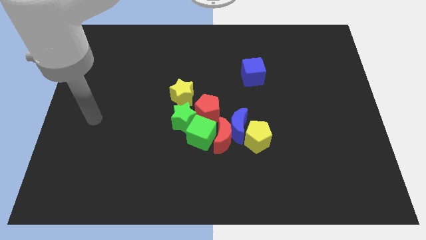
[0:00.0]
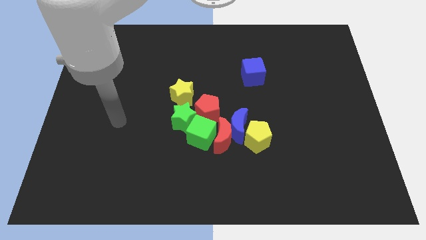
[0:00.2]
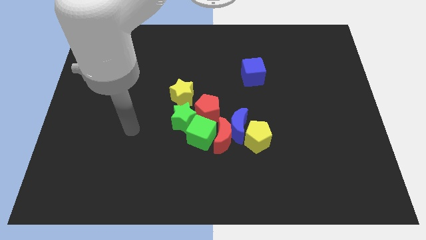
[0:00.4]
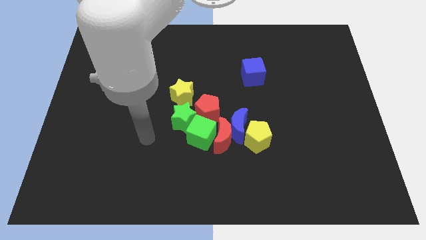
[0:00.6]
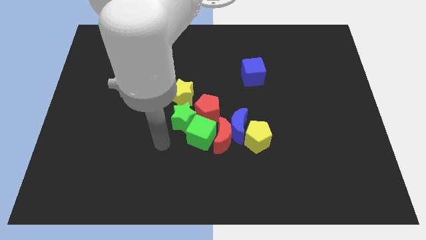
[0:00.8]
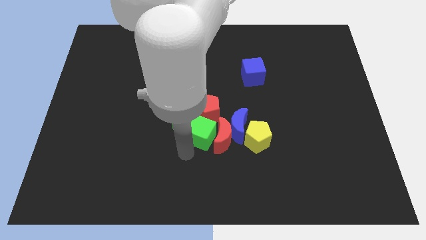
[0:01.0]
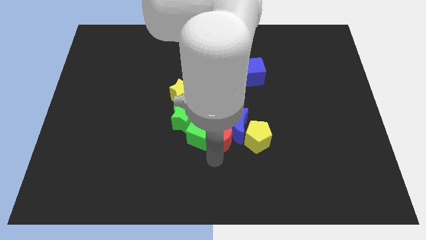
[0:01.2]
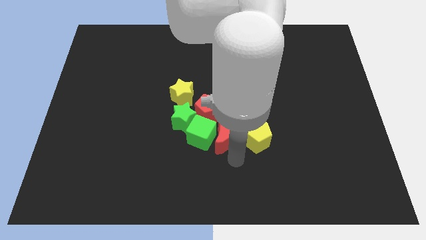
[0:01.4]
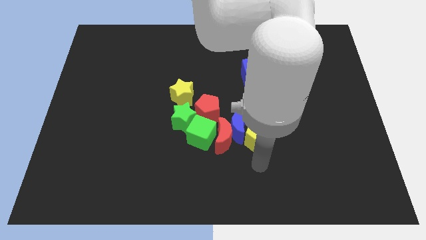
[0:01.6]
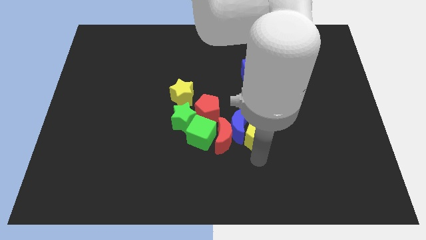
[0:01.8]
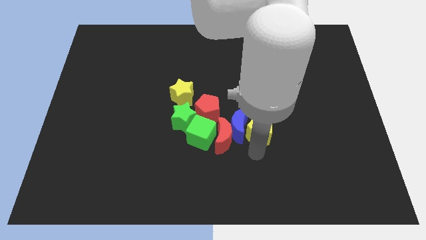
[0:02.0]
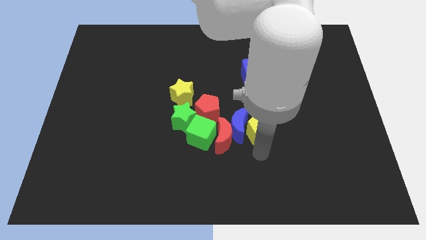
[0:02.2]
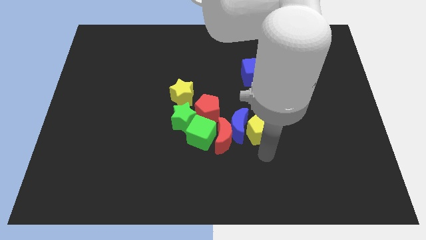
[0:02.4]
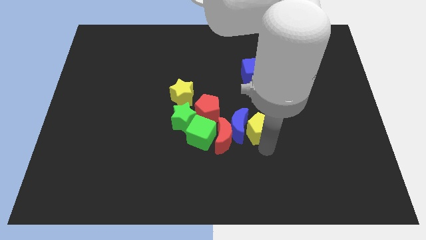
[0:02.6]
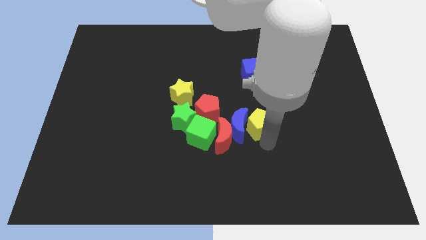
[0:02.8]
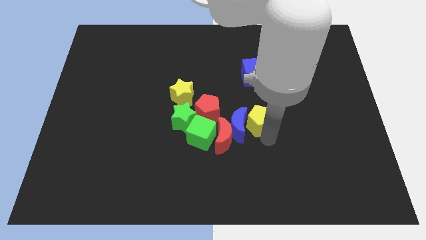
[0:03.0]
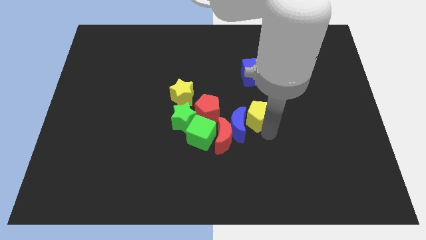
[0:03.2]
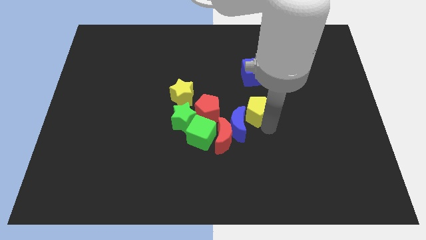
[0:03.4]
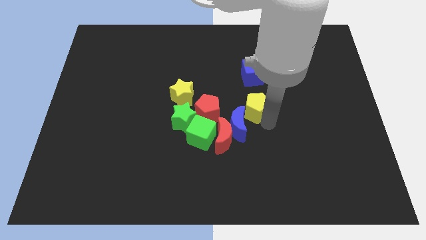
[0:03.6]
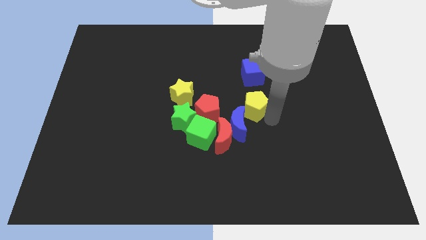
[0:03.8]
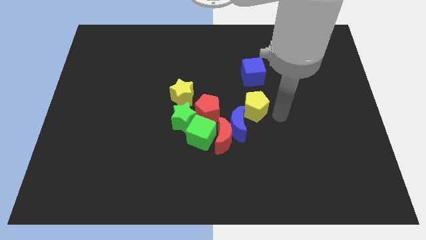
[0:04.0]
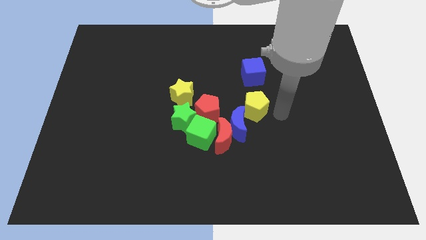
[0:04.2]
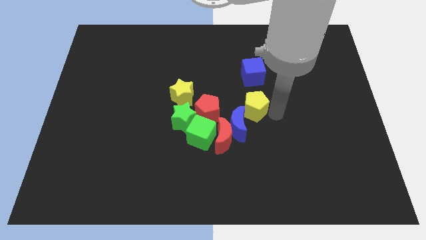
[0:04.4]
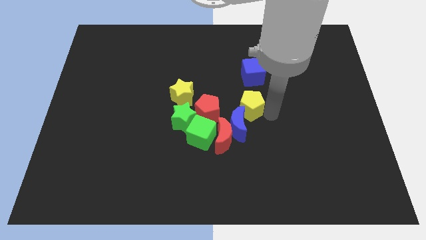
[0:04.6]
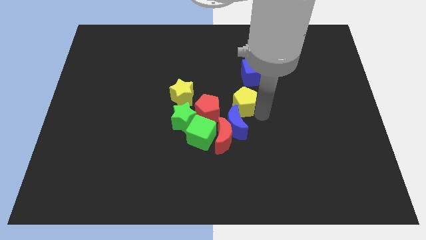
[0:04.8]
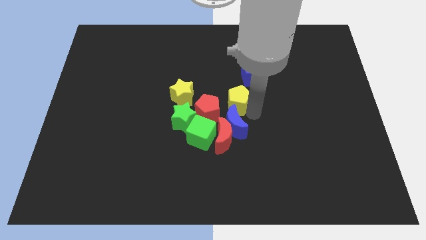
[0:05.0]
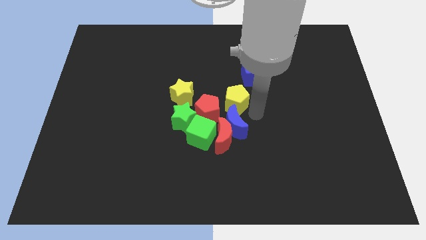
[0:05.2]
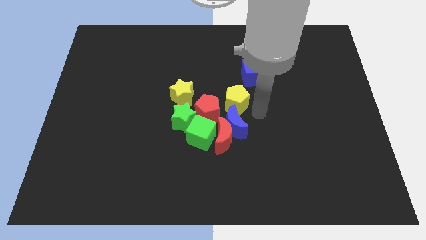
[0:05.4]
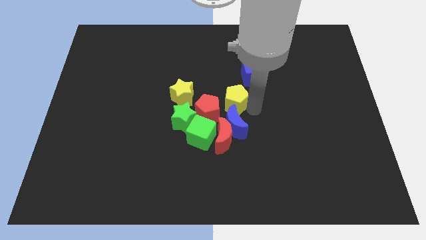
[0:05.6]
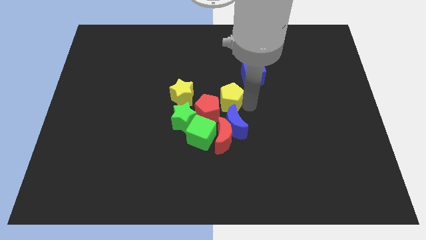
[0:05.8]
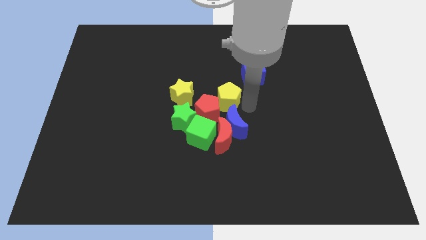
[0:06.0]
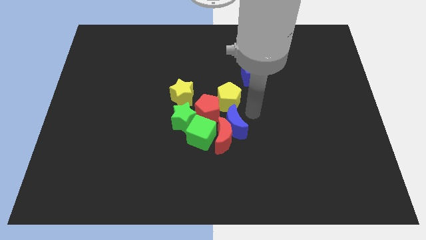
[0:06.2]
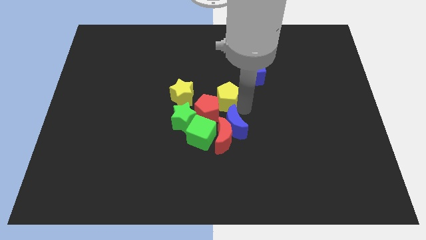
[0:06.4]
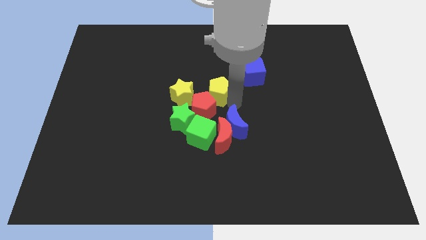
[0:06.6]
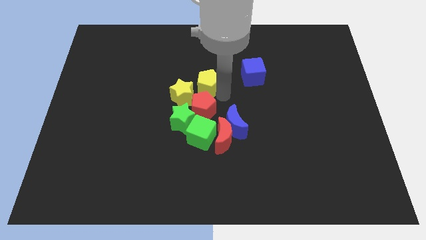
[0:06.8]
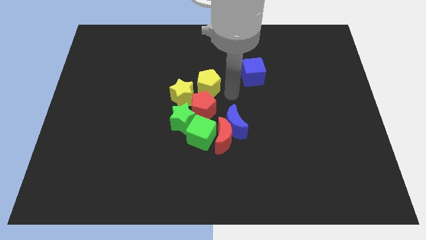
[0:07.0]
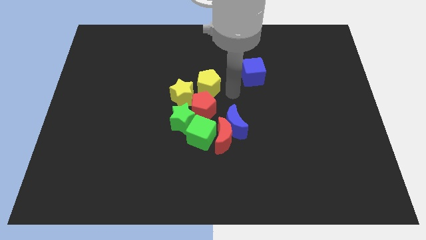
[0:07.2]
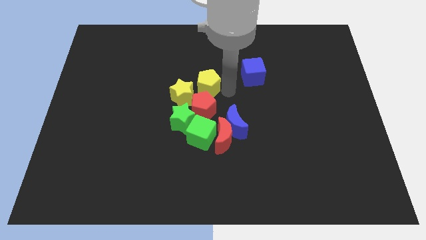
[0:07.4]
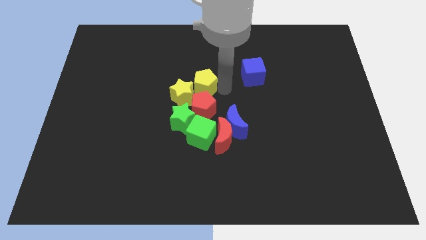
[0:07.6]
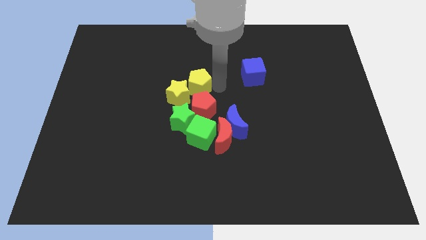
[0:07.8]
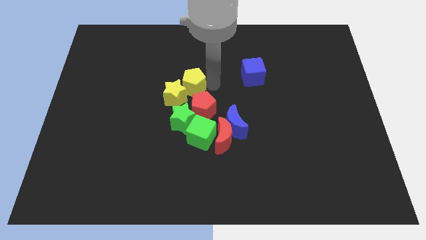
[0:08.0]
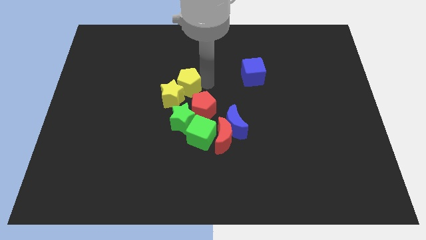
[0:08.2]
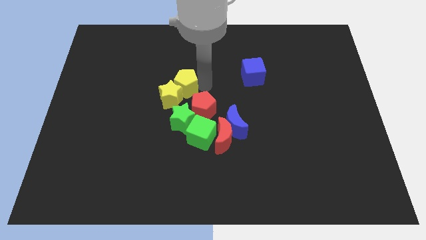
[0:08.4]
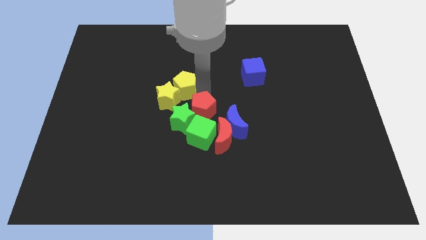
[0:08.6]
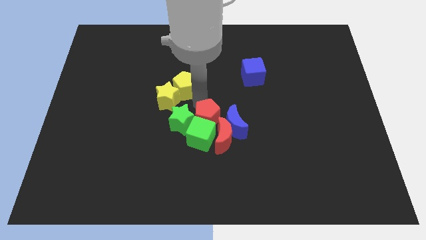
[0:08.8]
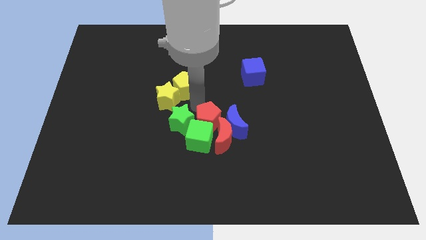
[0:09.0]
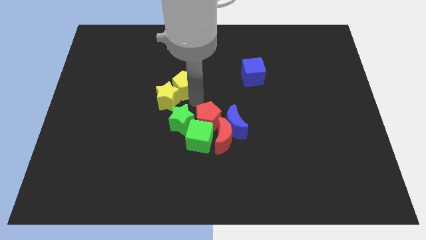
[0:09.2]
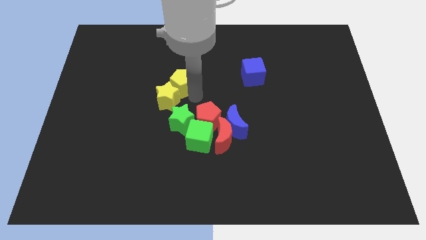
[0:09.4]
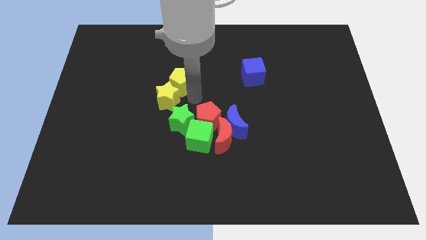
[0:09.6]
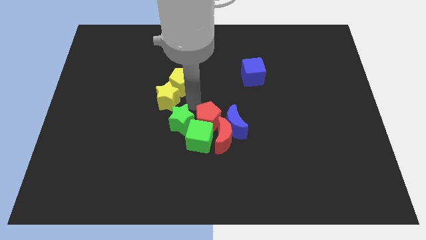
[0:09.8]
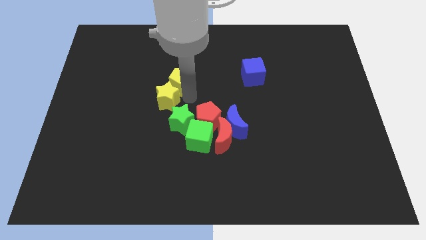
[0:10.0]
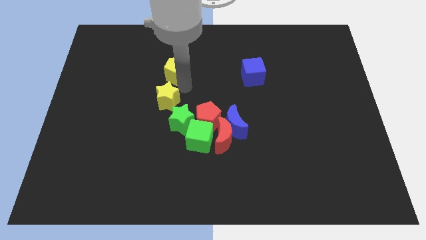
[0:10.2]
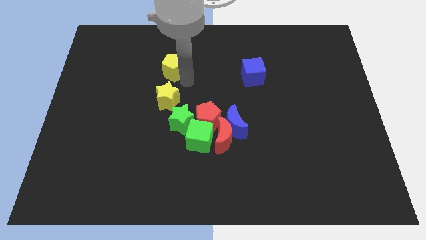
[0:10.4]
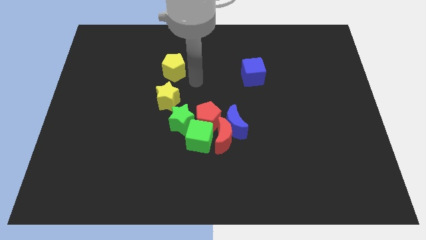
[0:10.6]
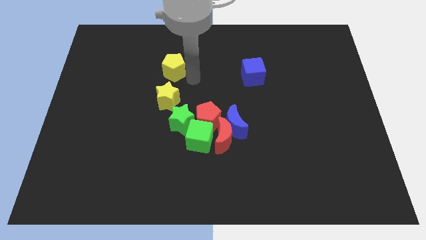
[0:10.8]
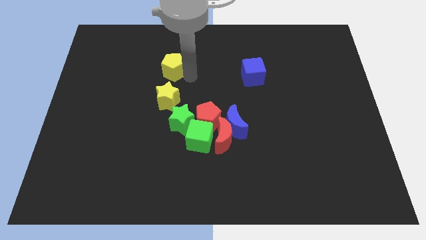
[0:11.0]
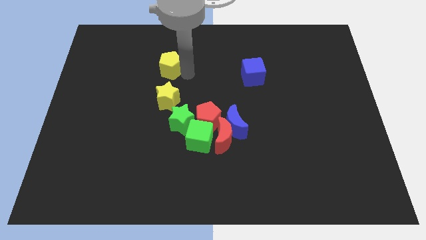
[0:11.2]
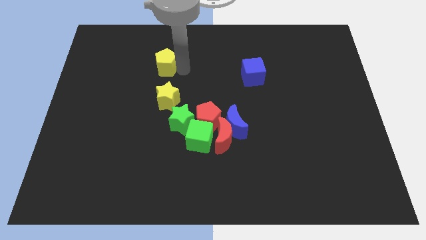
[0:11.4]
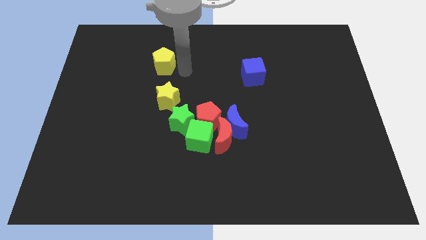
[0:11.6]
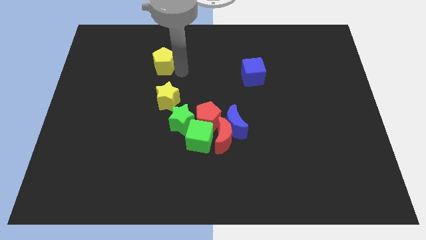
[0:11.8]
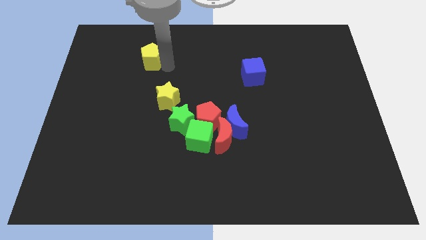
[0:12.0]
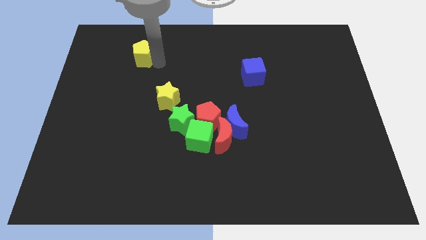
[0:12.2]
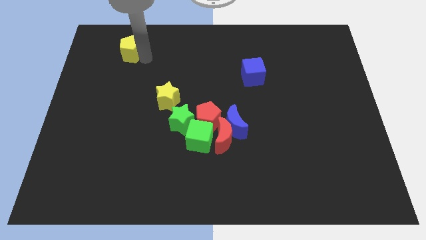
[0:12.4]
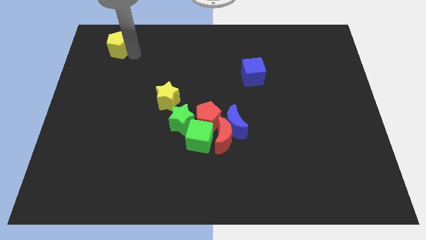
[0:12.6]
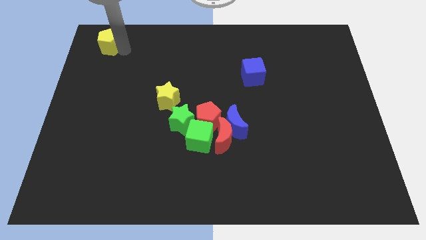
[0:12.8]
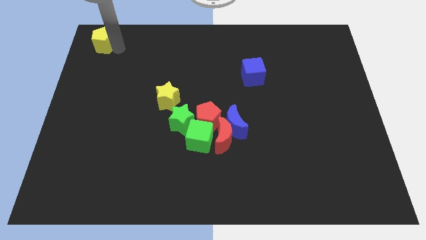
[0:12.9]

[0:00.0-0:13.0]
push the yellow pentagon to the top left corner

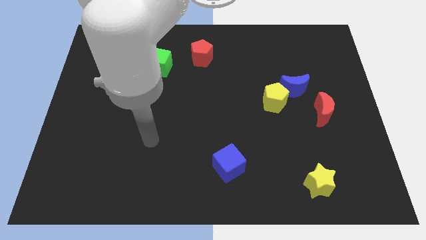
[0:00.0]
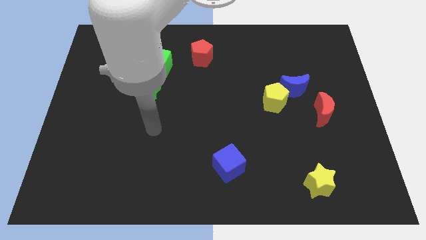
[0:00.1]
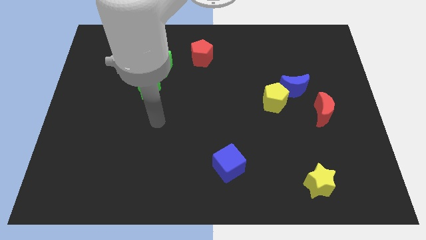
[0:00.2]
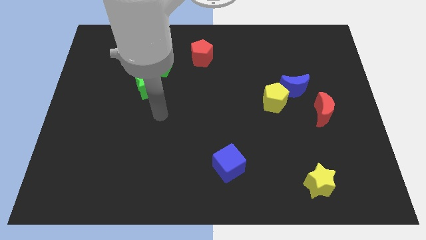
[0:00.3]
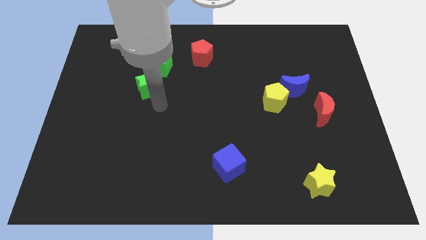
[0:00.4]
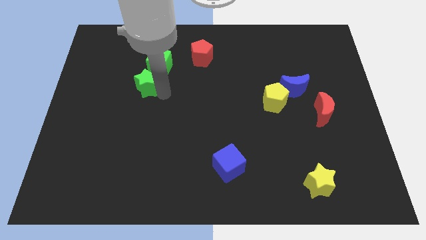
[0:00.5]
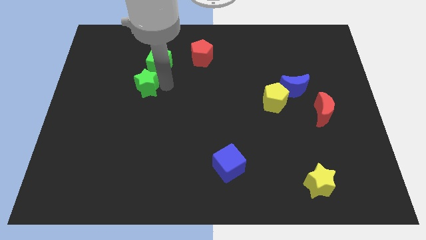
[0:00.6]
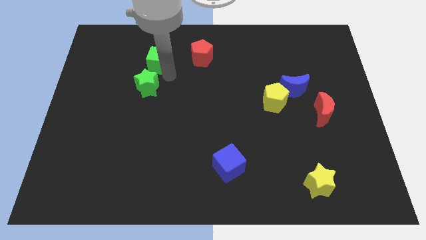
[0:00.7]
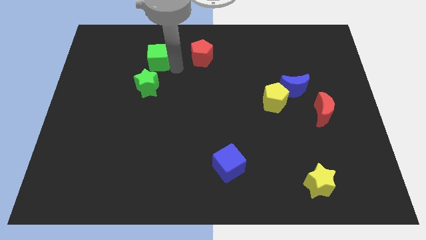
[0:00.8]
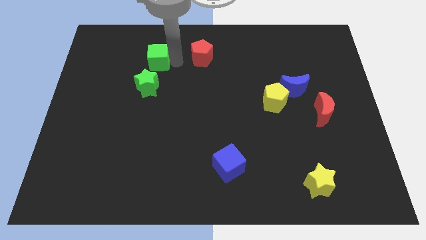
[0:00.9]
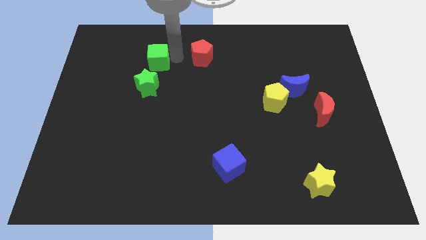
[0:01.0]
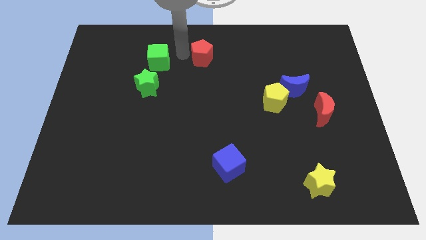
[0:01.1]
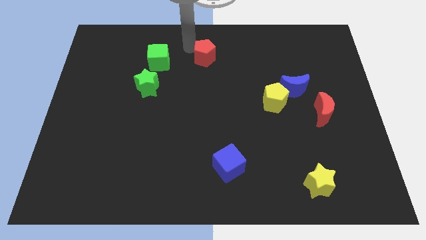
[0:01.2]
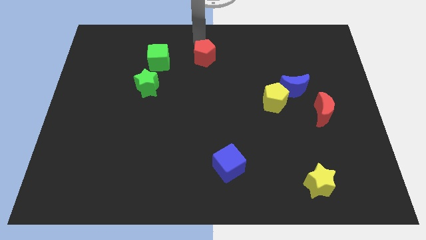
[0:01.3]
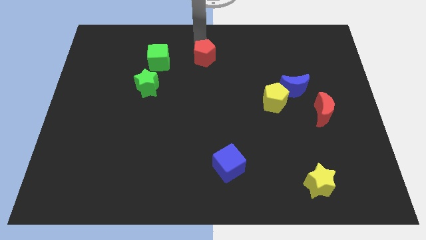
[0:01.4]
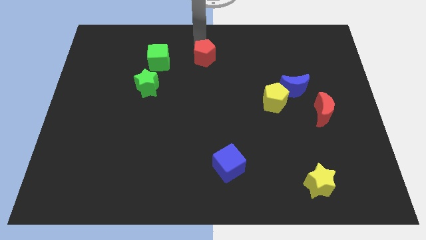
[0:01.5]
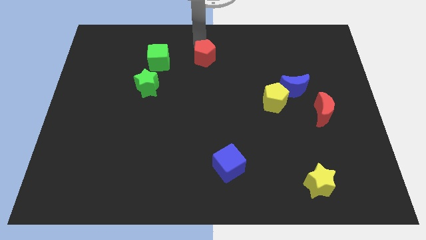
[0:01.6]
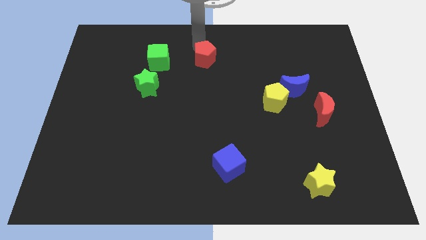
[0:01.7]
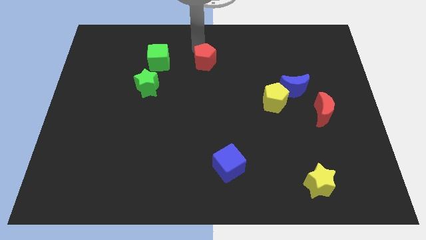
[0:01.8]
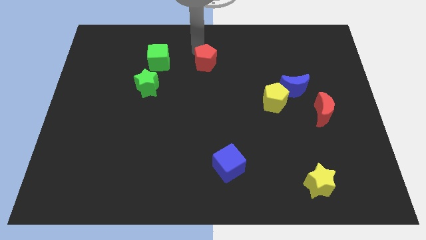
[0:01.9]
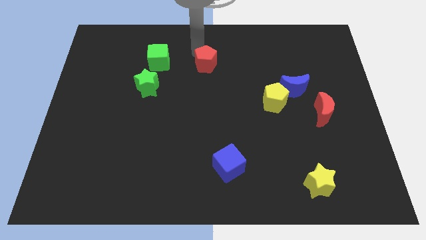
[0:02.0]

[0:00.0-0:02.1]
put the red pentagon to the center
